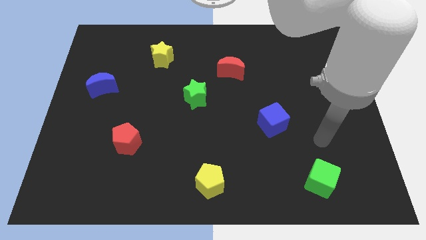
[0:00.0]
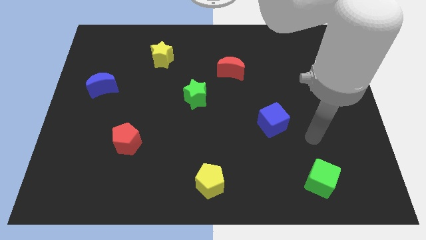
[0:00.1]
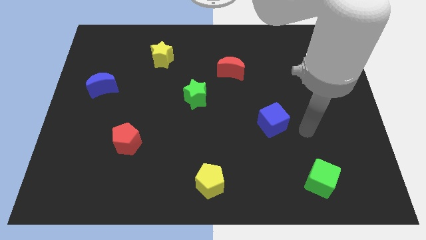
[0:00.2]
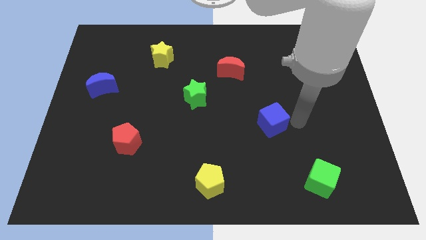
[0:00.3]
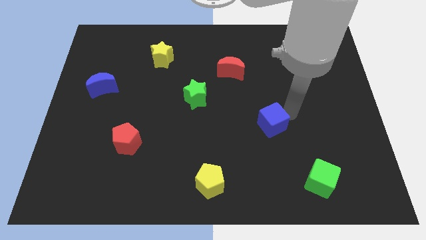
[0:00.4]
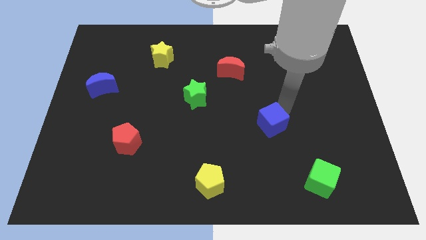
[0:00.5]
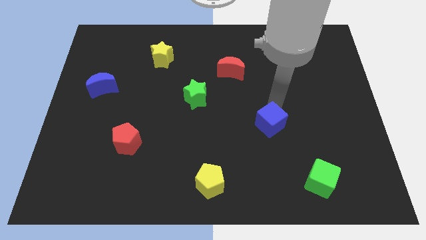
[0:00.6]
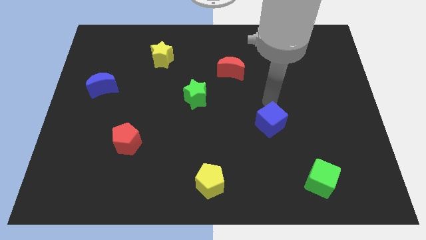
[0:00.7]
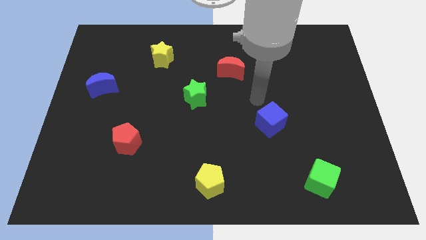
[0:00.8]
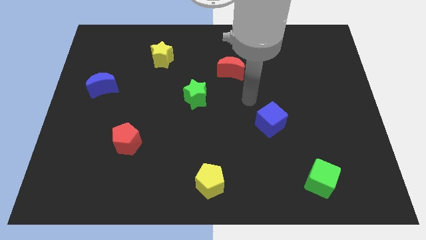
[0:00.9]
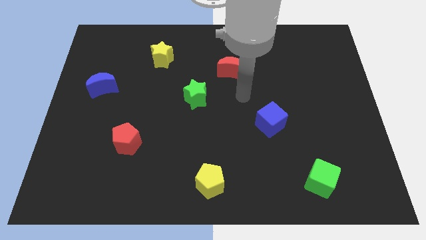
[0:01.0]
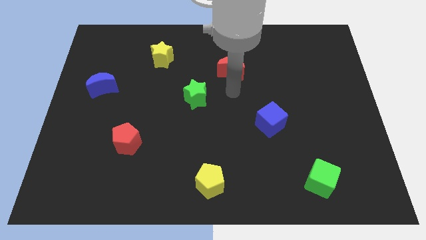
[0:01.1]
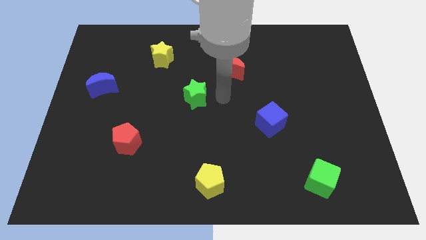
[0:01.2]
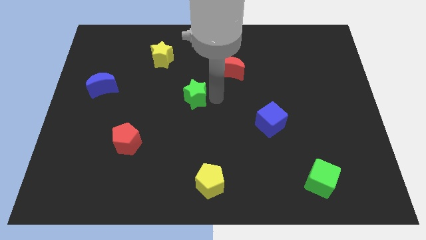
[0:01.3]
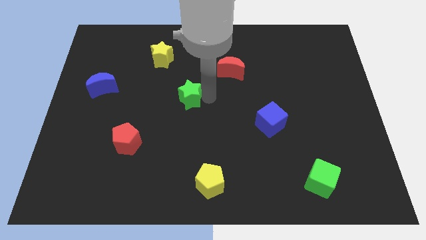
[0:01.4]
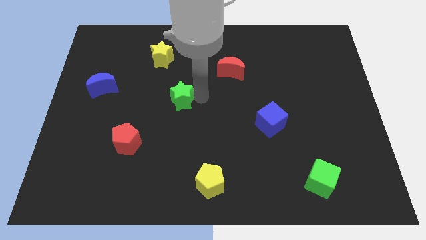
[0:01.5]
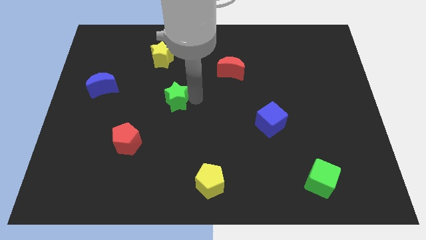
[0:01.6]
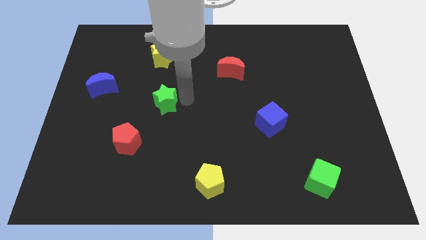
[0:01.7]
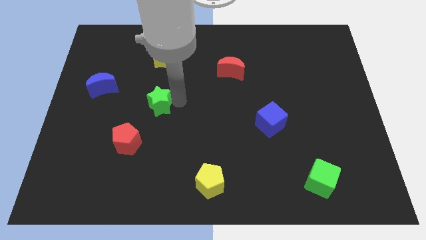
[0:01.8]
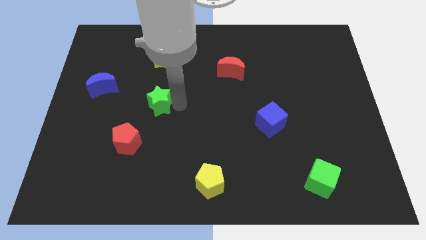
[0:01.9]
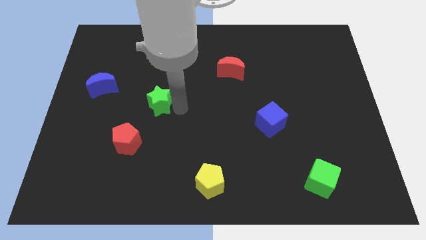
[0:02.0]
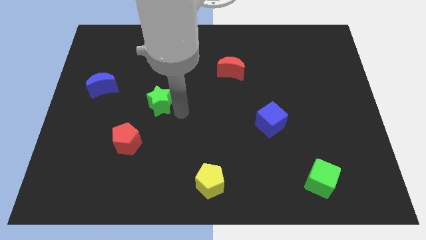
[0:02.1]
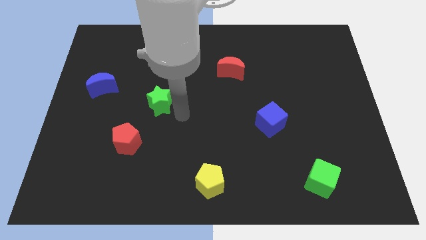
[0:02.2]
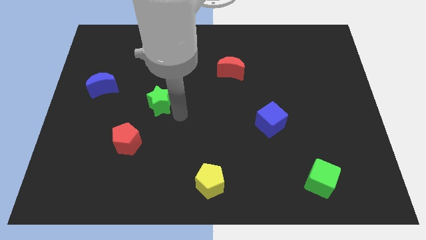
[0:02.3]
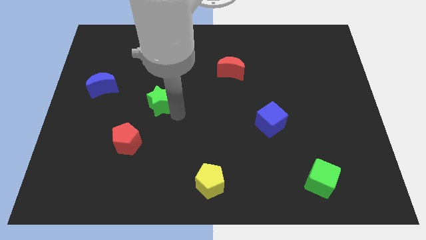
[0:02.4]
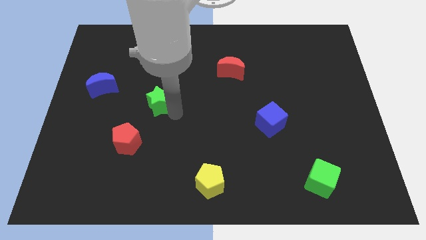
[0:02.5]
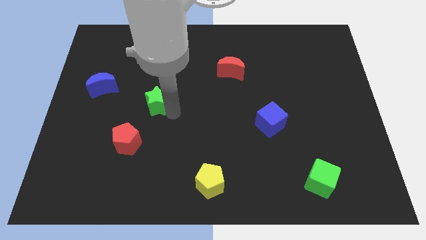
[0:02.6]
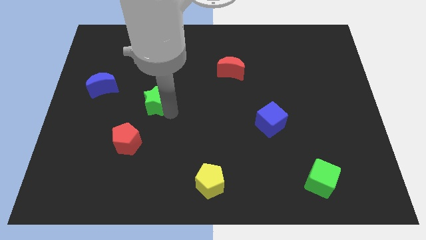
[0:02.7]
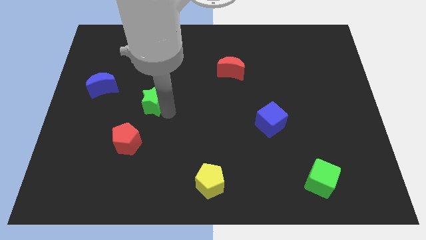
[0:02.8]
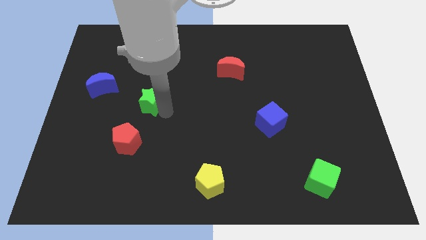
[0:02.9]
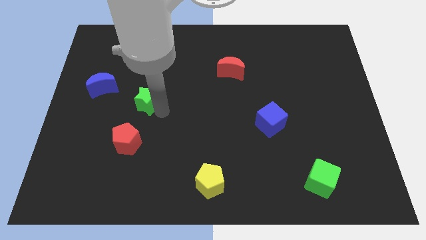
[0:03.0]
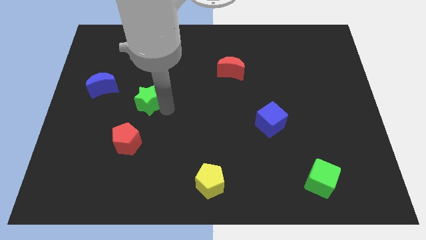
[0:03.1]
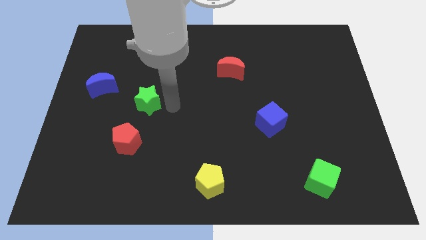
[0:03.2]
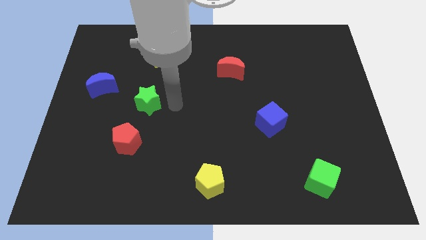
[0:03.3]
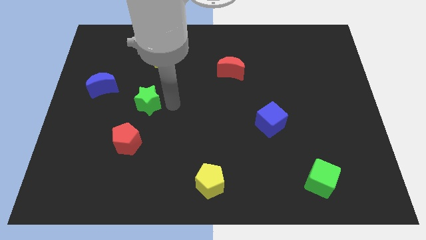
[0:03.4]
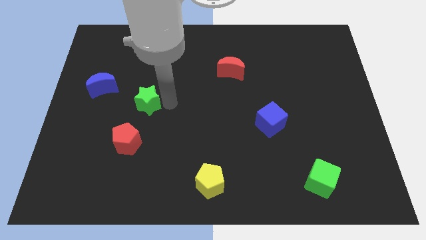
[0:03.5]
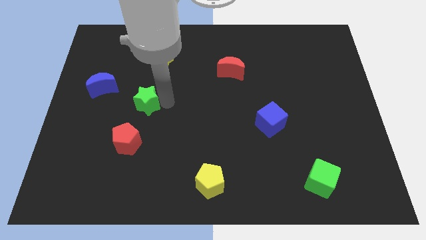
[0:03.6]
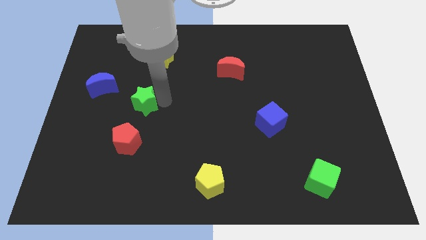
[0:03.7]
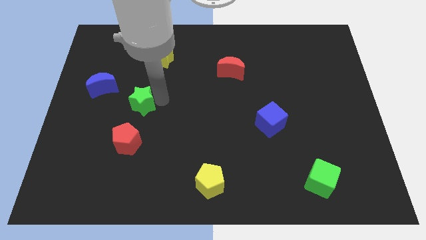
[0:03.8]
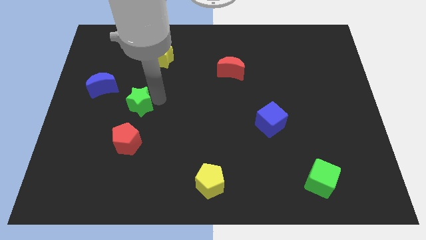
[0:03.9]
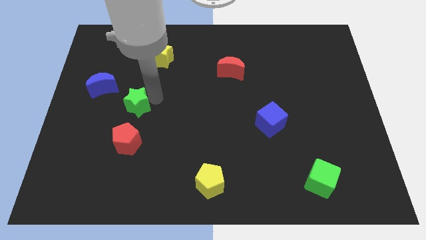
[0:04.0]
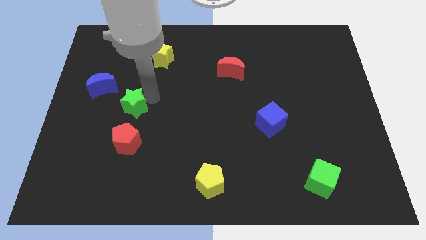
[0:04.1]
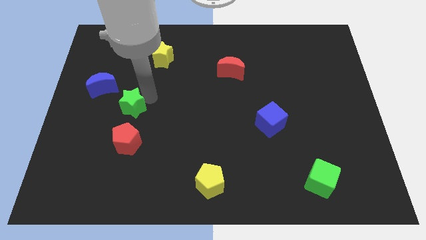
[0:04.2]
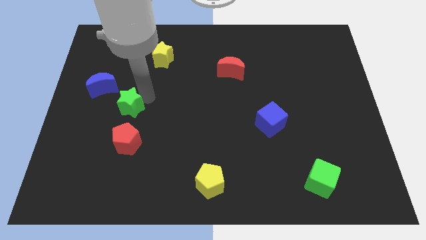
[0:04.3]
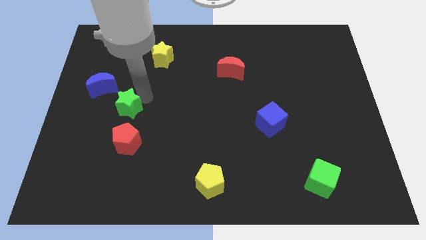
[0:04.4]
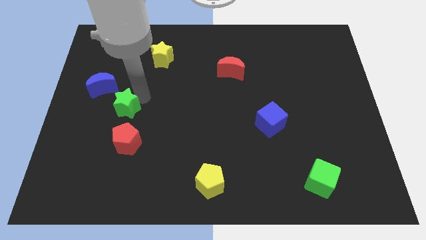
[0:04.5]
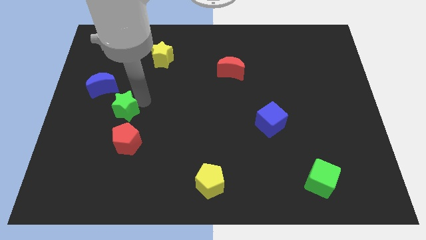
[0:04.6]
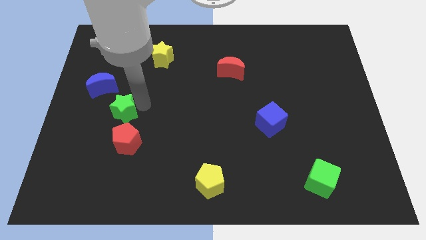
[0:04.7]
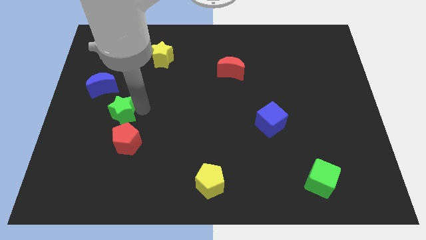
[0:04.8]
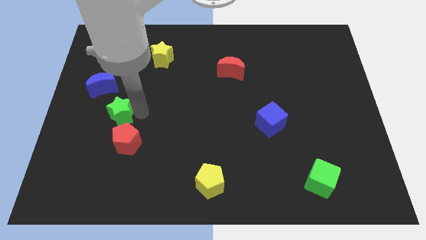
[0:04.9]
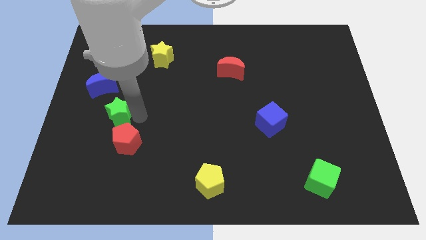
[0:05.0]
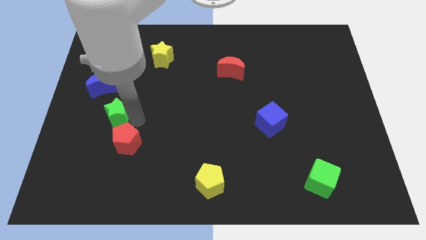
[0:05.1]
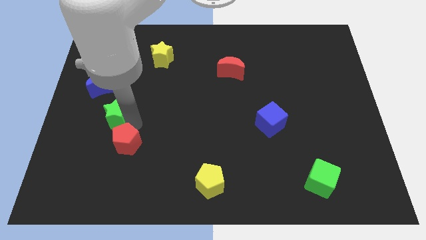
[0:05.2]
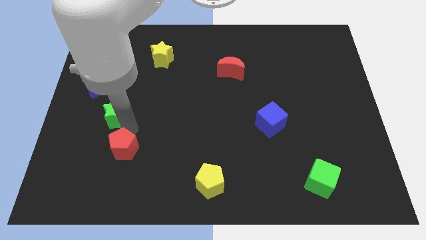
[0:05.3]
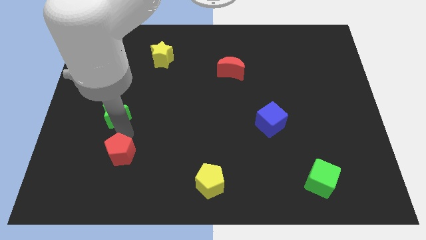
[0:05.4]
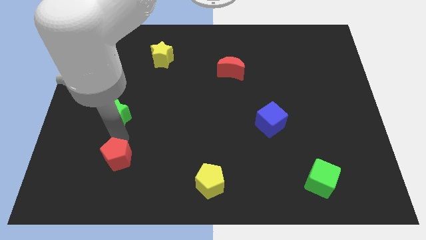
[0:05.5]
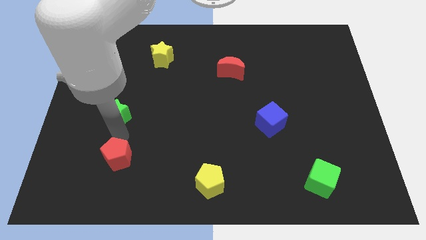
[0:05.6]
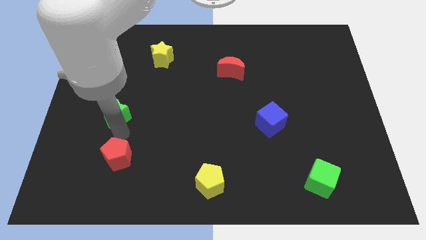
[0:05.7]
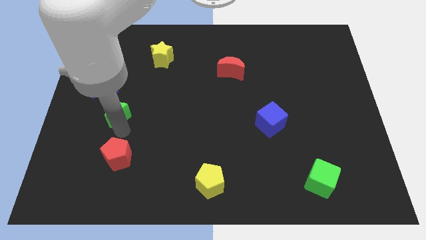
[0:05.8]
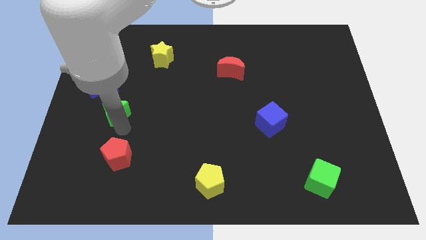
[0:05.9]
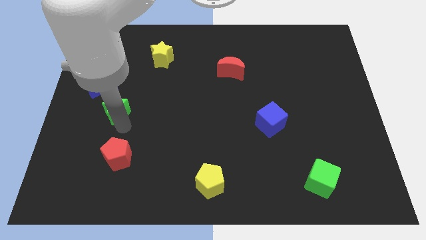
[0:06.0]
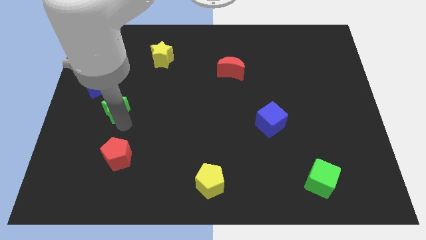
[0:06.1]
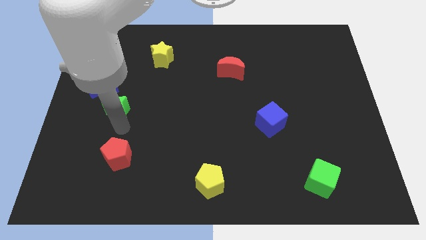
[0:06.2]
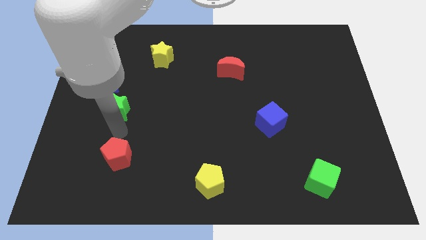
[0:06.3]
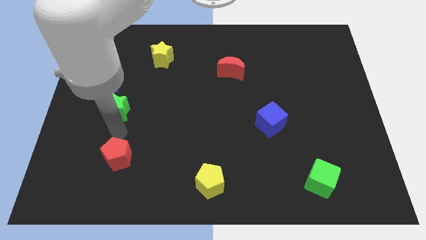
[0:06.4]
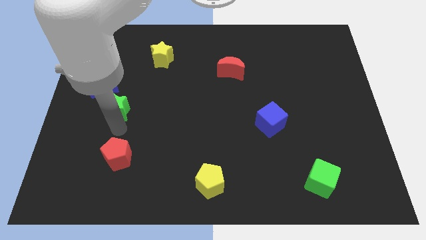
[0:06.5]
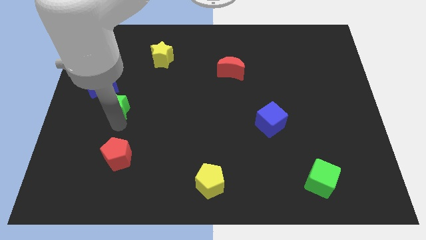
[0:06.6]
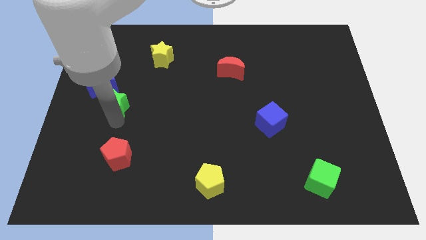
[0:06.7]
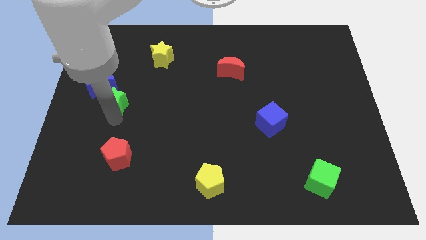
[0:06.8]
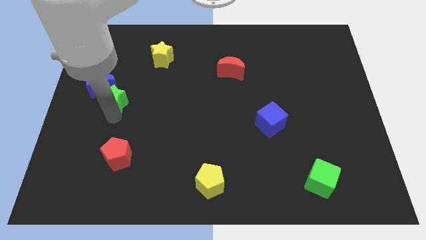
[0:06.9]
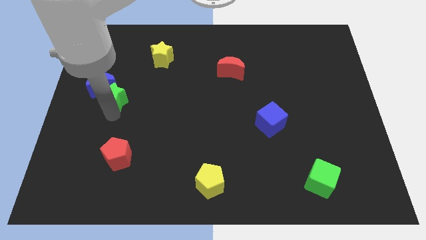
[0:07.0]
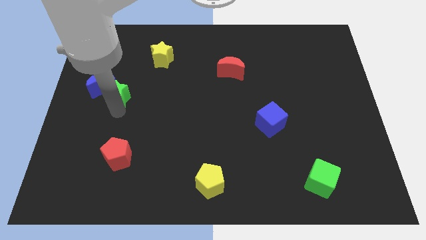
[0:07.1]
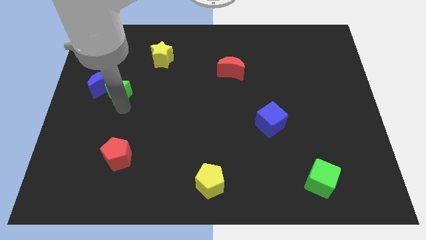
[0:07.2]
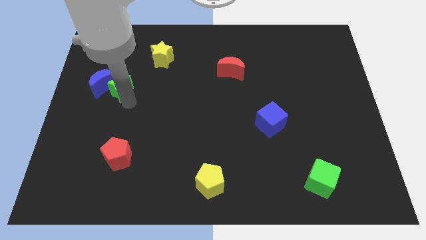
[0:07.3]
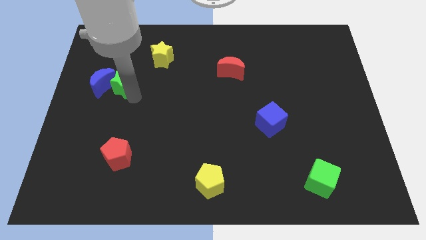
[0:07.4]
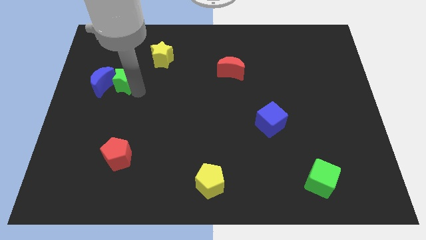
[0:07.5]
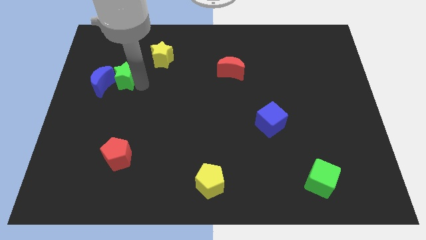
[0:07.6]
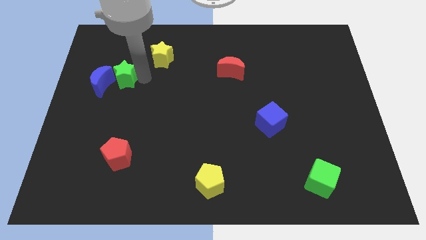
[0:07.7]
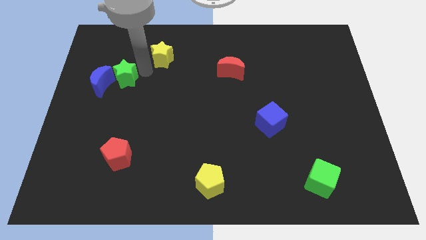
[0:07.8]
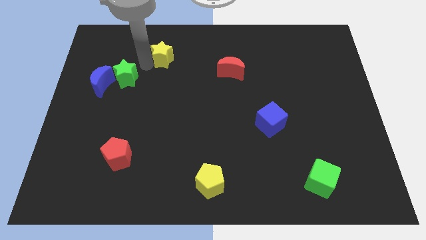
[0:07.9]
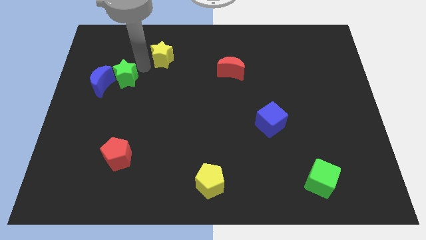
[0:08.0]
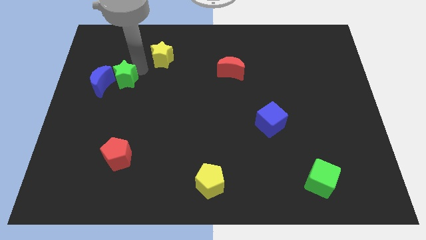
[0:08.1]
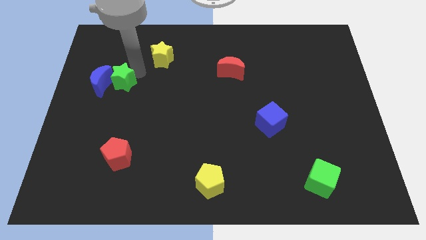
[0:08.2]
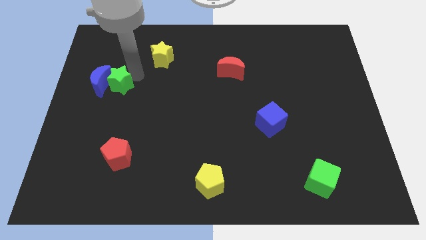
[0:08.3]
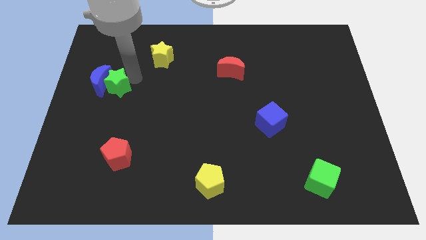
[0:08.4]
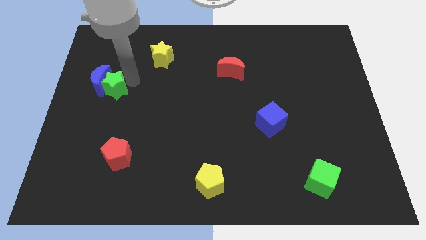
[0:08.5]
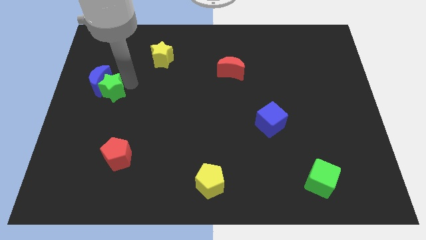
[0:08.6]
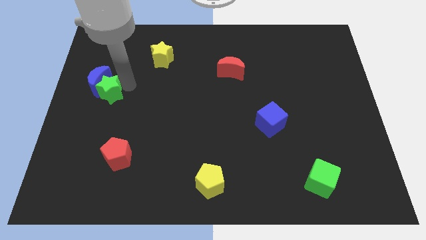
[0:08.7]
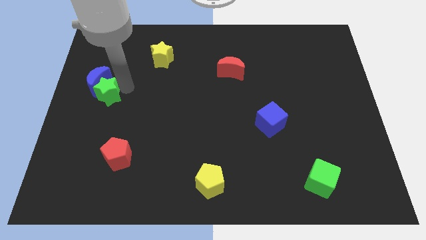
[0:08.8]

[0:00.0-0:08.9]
slide the green star to the left side
